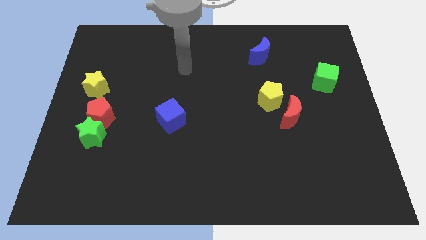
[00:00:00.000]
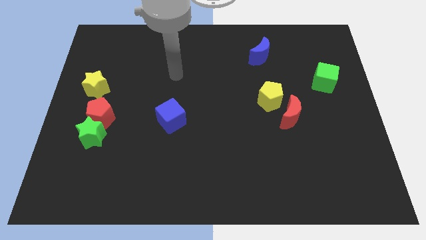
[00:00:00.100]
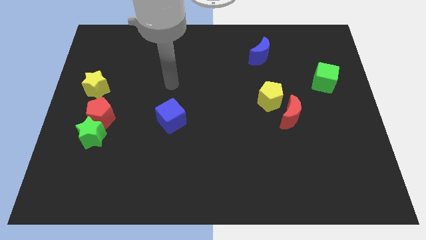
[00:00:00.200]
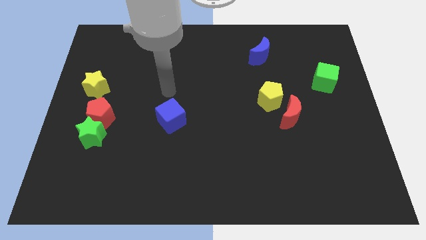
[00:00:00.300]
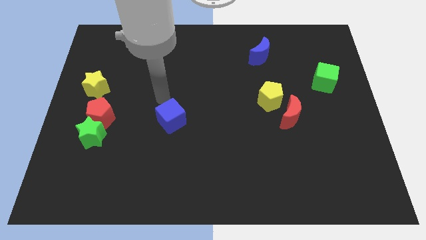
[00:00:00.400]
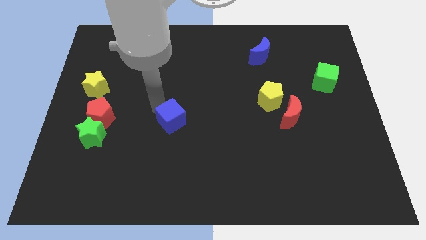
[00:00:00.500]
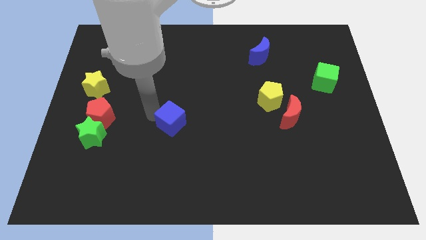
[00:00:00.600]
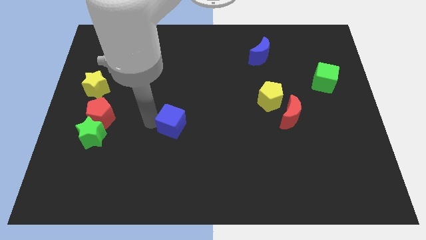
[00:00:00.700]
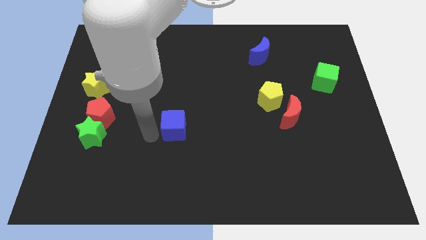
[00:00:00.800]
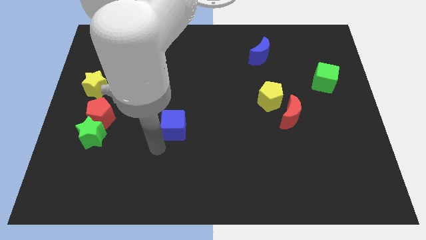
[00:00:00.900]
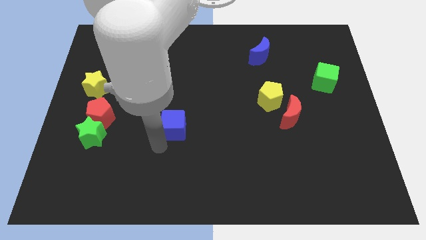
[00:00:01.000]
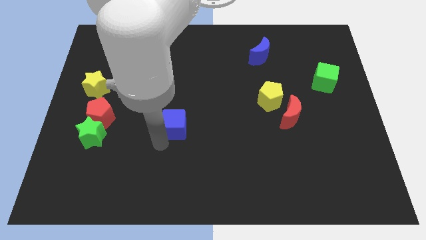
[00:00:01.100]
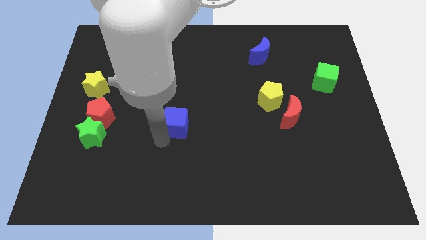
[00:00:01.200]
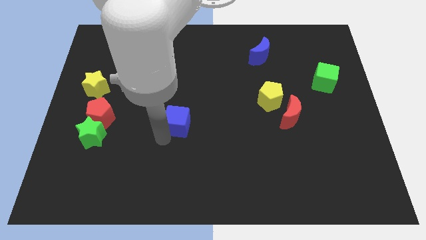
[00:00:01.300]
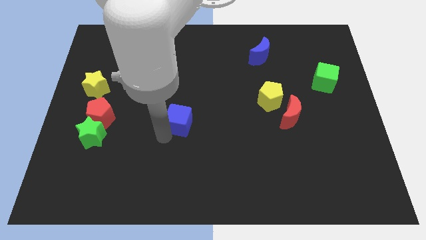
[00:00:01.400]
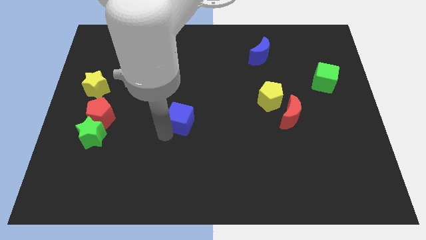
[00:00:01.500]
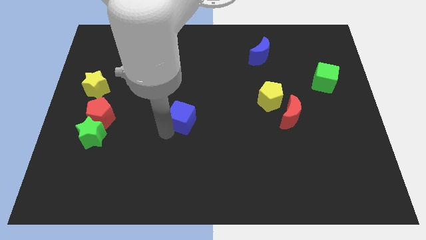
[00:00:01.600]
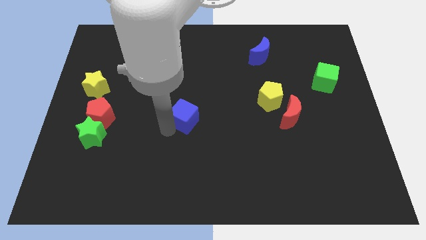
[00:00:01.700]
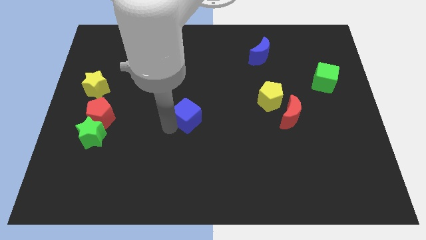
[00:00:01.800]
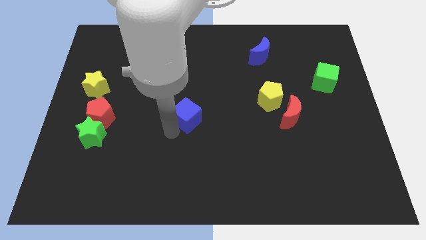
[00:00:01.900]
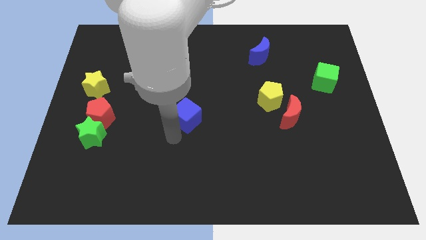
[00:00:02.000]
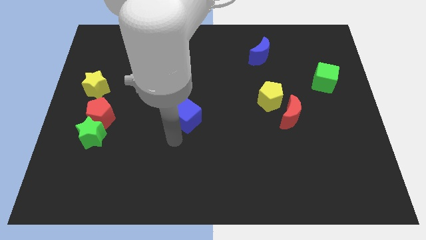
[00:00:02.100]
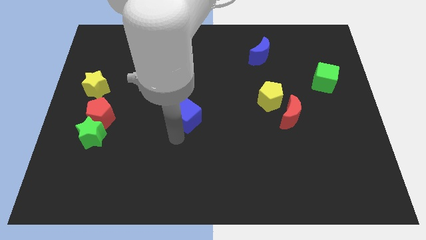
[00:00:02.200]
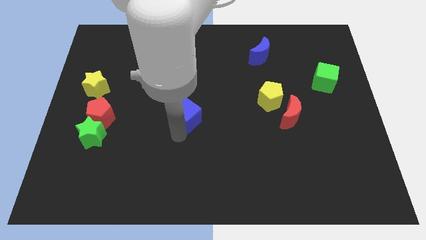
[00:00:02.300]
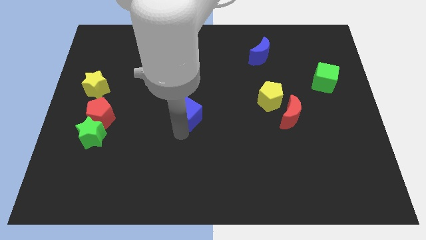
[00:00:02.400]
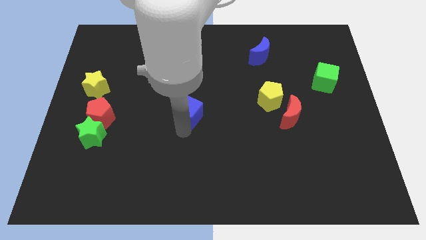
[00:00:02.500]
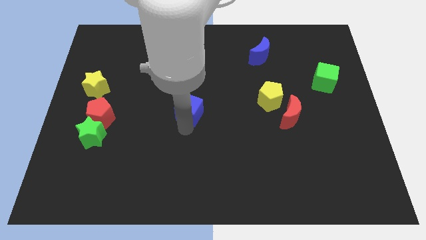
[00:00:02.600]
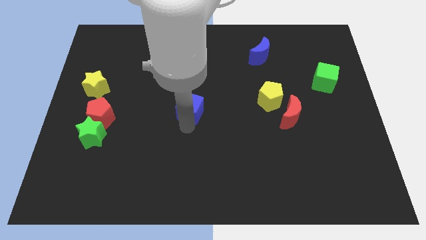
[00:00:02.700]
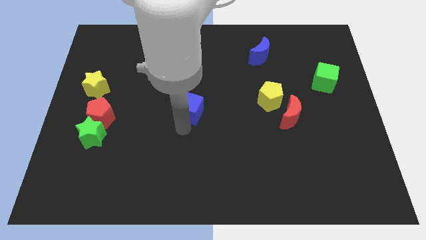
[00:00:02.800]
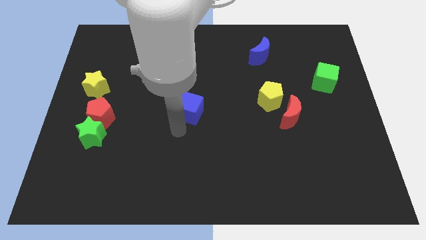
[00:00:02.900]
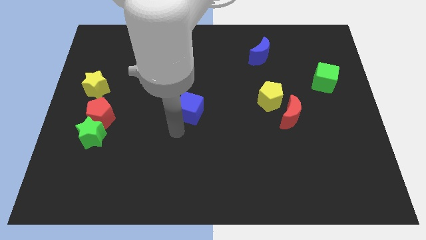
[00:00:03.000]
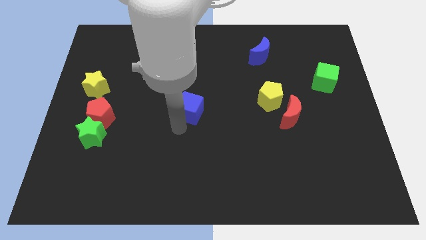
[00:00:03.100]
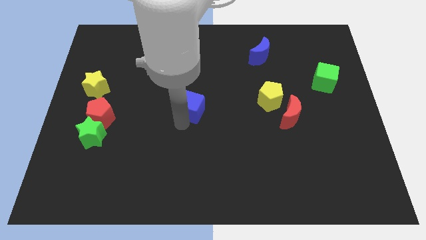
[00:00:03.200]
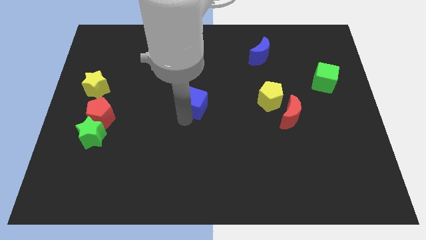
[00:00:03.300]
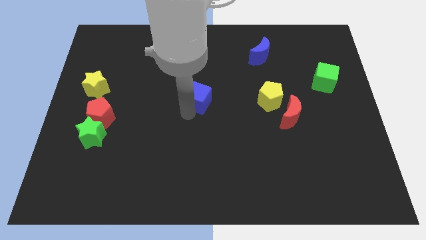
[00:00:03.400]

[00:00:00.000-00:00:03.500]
slightly slide the blue cube up and right

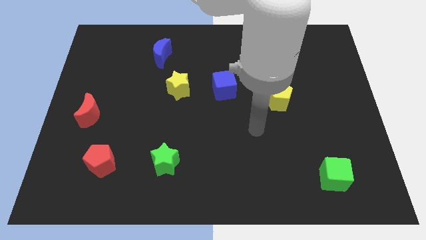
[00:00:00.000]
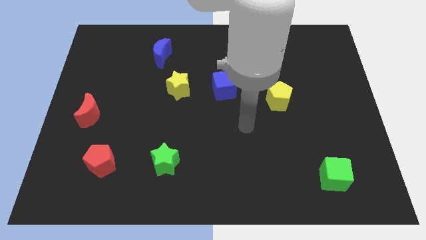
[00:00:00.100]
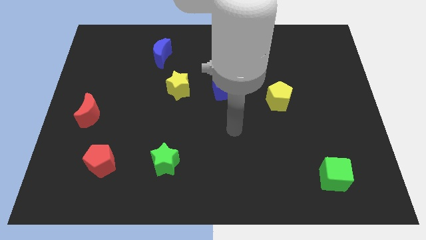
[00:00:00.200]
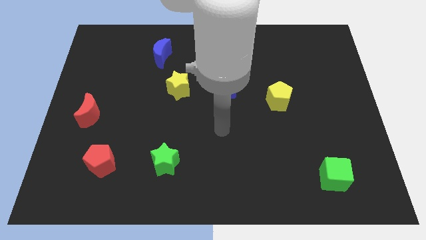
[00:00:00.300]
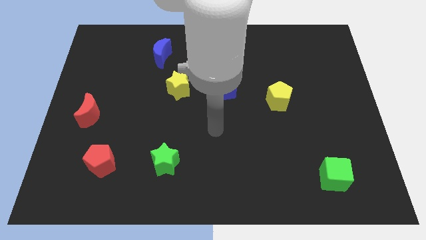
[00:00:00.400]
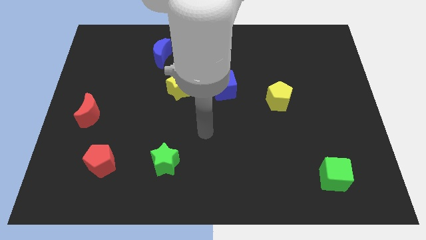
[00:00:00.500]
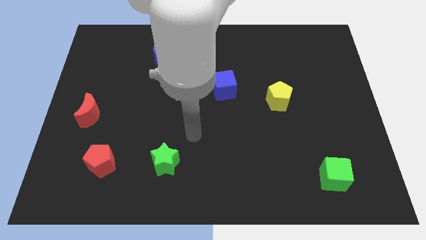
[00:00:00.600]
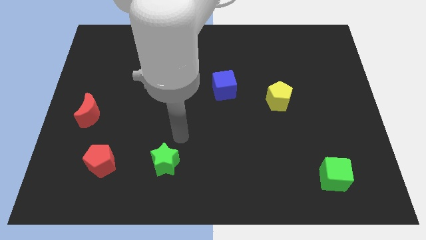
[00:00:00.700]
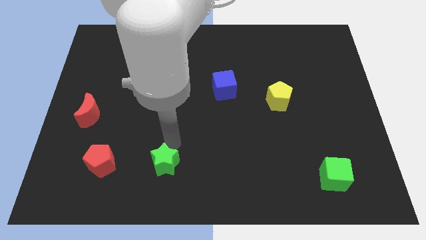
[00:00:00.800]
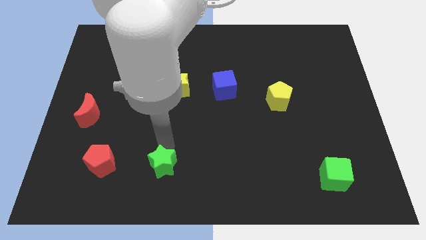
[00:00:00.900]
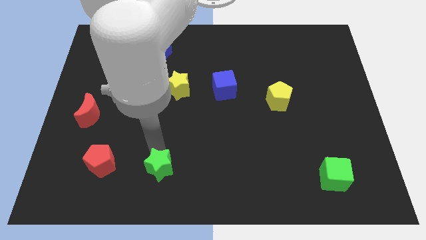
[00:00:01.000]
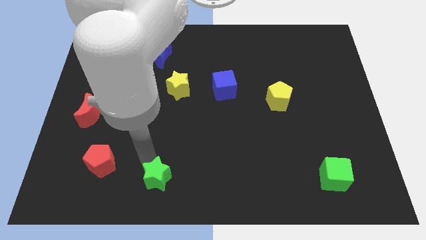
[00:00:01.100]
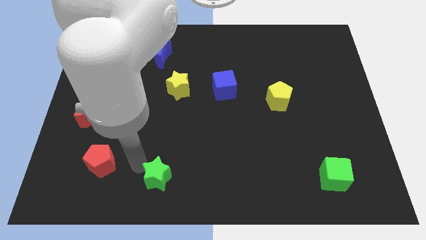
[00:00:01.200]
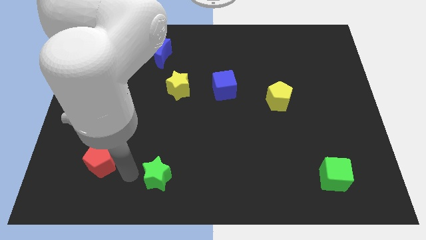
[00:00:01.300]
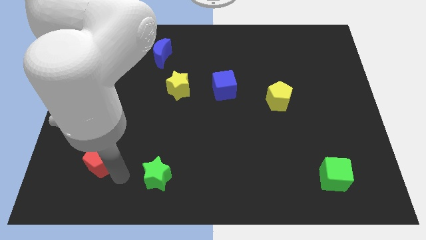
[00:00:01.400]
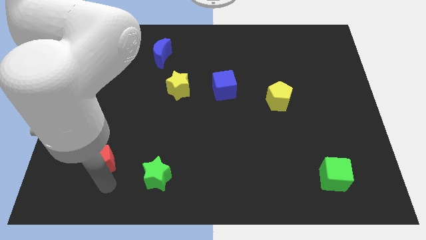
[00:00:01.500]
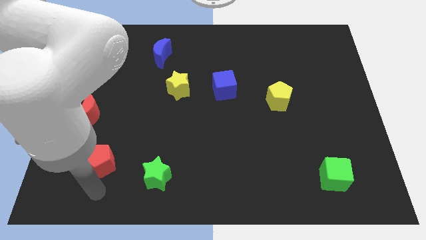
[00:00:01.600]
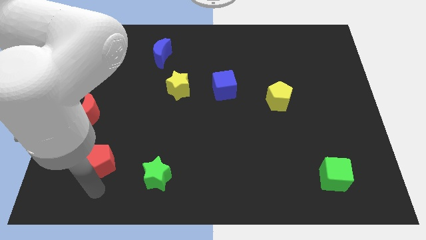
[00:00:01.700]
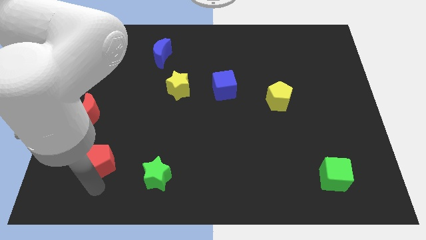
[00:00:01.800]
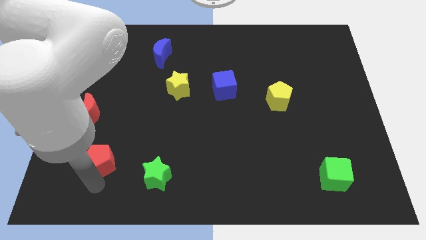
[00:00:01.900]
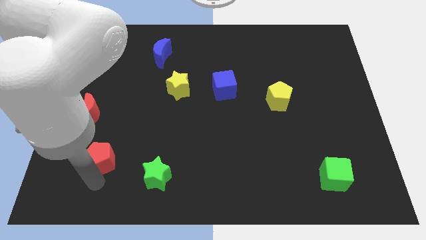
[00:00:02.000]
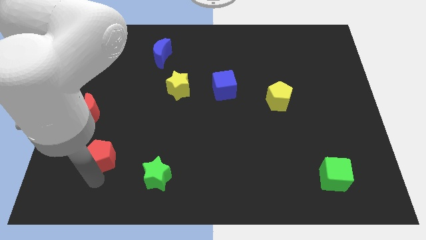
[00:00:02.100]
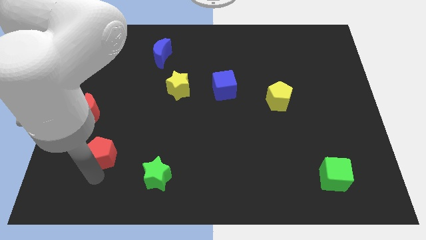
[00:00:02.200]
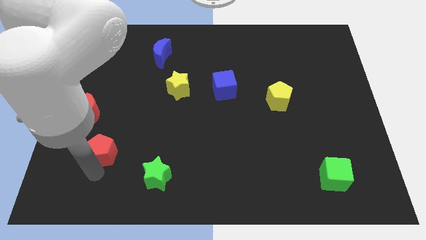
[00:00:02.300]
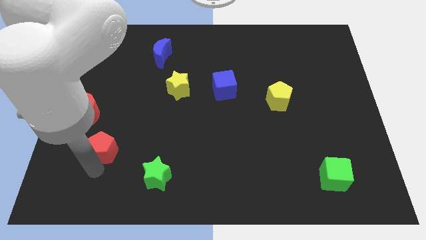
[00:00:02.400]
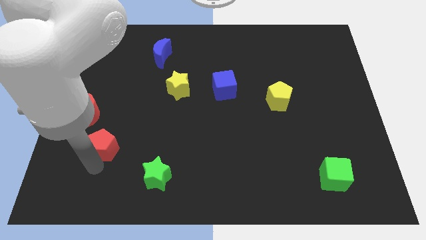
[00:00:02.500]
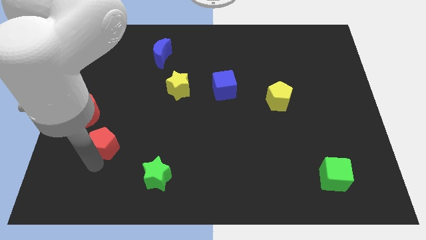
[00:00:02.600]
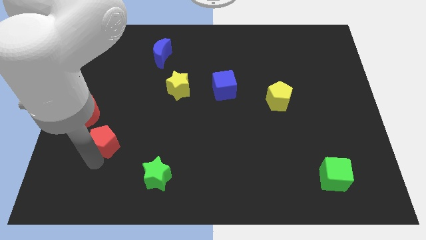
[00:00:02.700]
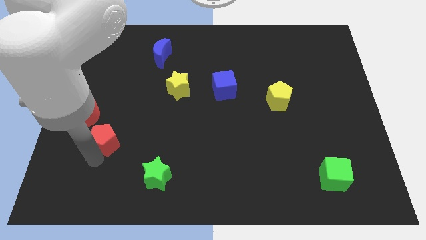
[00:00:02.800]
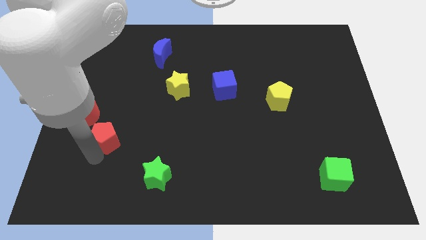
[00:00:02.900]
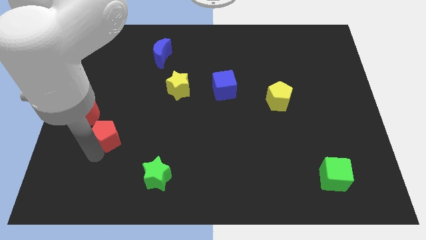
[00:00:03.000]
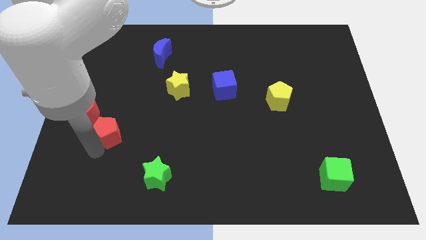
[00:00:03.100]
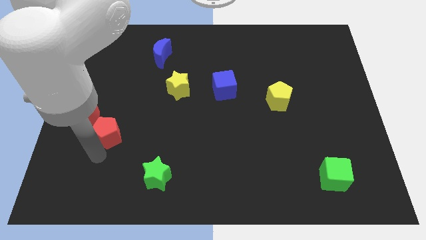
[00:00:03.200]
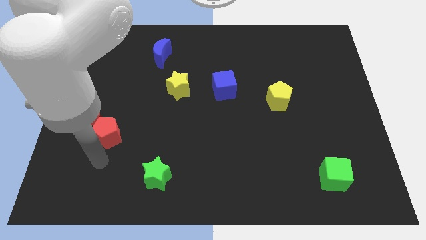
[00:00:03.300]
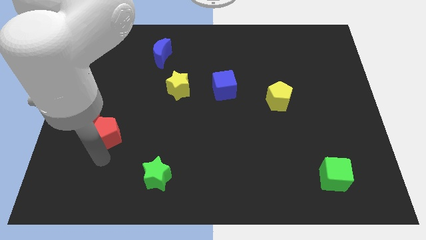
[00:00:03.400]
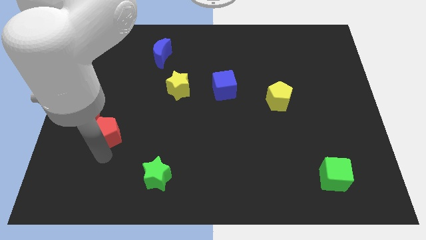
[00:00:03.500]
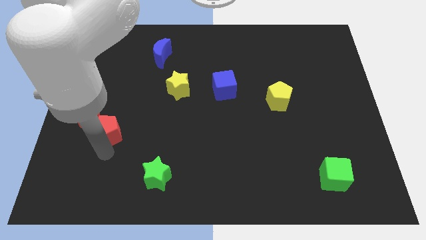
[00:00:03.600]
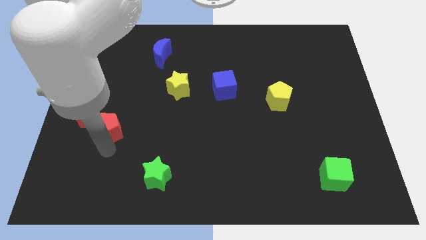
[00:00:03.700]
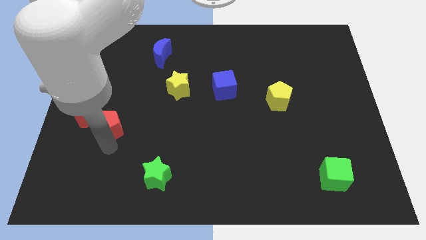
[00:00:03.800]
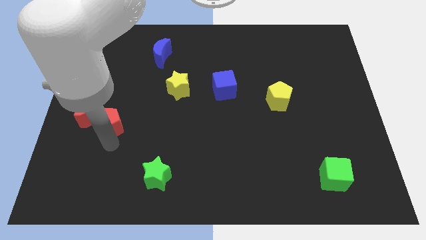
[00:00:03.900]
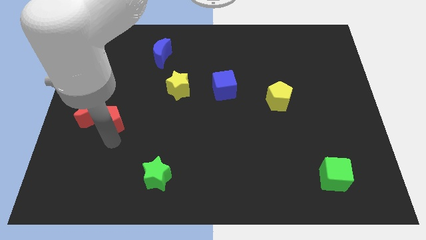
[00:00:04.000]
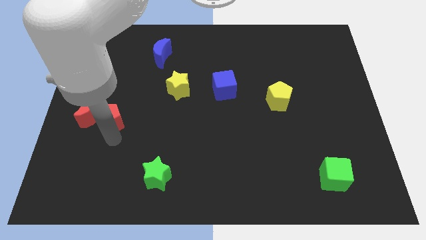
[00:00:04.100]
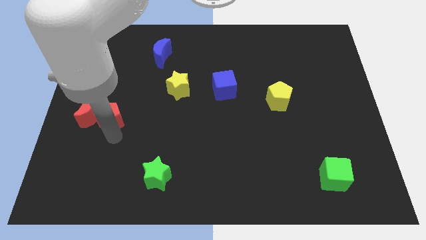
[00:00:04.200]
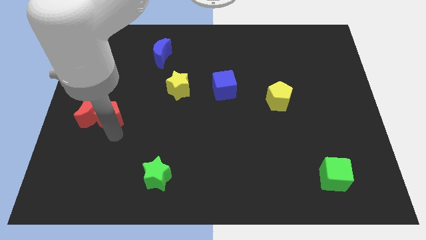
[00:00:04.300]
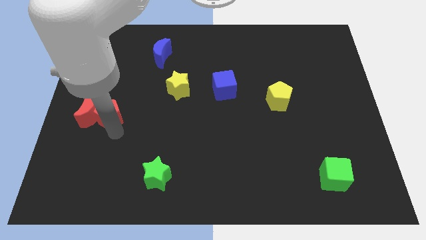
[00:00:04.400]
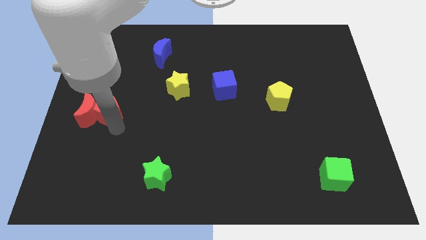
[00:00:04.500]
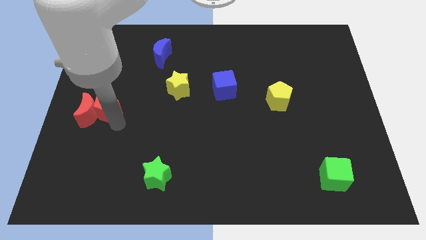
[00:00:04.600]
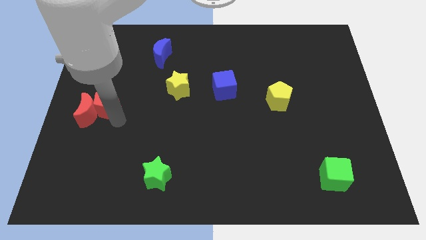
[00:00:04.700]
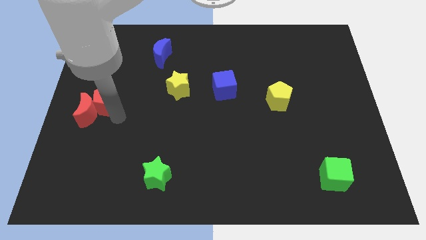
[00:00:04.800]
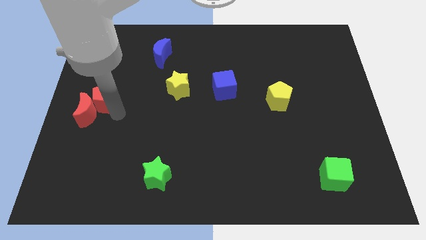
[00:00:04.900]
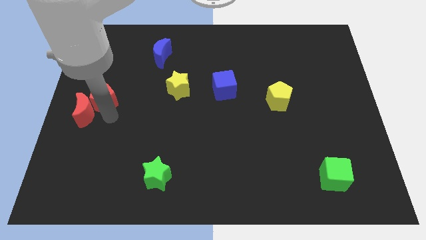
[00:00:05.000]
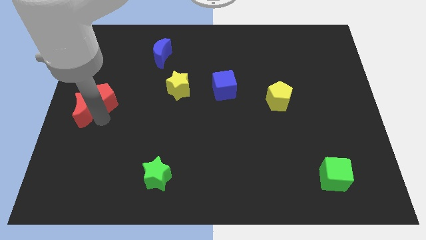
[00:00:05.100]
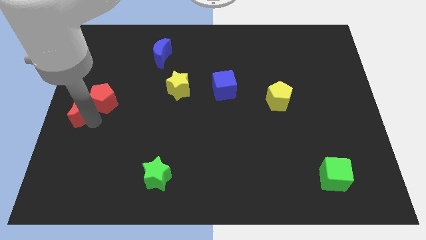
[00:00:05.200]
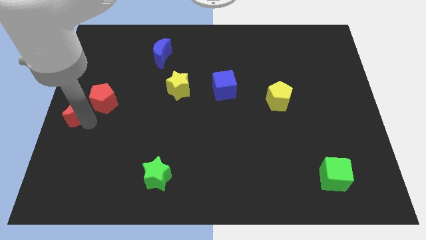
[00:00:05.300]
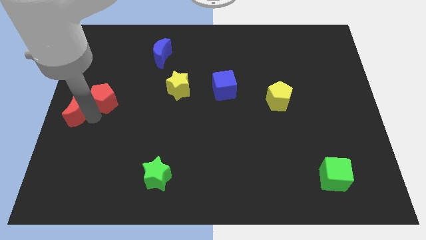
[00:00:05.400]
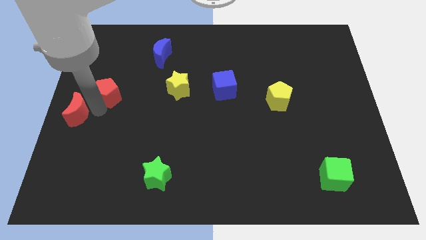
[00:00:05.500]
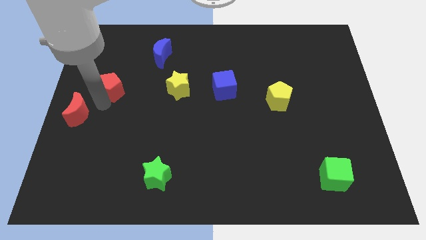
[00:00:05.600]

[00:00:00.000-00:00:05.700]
slide the red pentagon upwards
